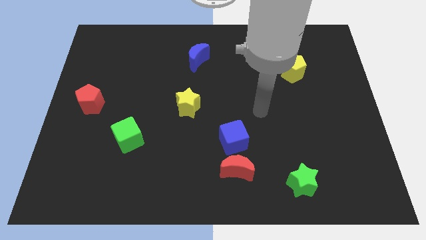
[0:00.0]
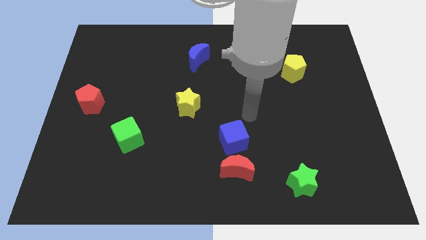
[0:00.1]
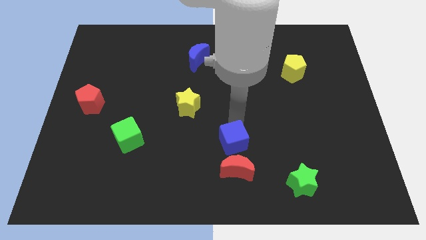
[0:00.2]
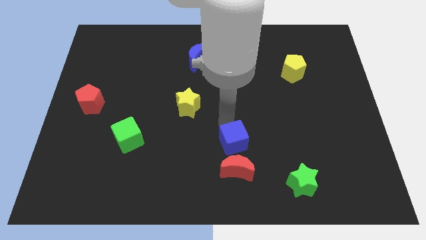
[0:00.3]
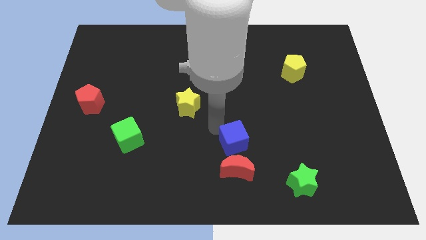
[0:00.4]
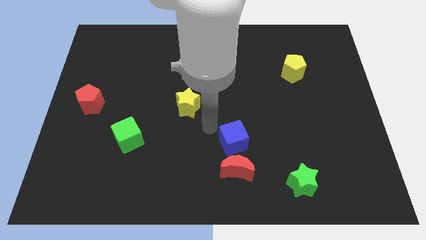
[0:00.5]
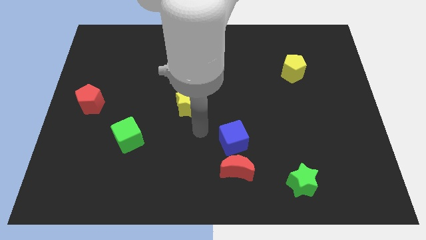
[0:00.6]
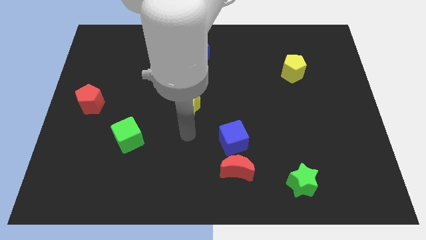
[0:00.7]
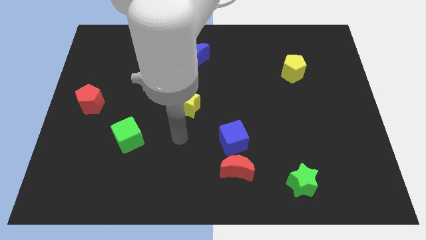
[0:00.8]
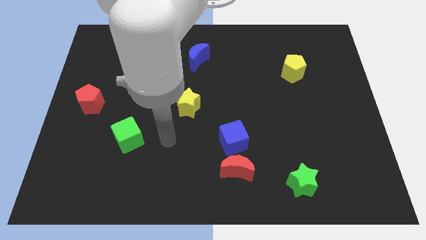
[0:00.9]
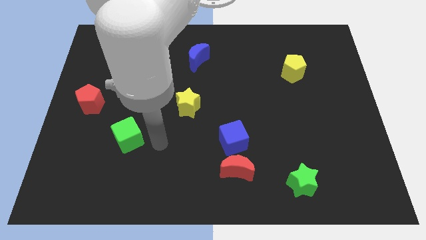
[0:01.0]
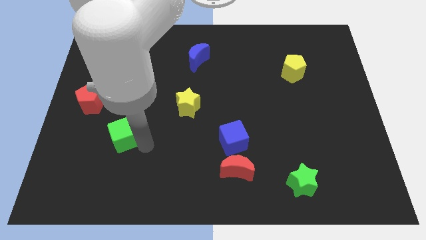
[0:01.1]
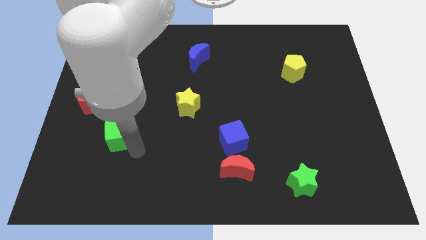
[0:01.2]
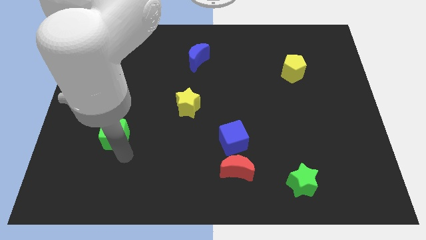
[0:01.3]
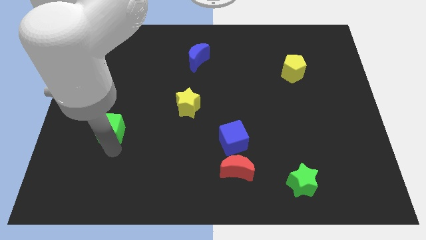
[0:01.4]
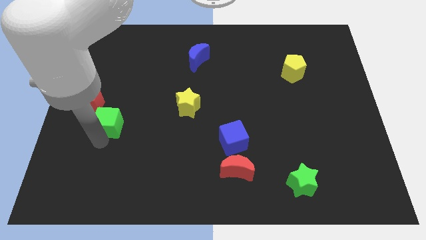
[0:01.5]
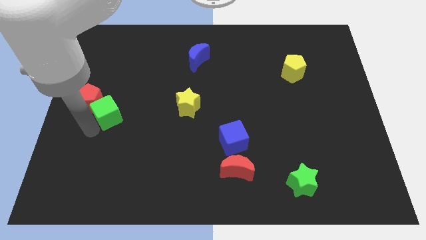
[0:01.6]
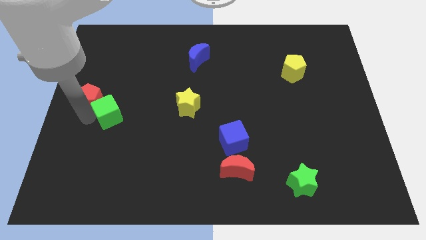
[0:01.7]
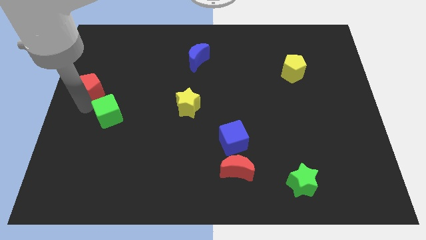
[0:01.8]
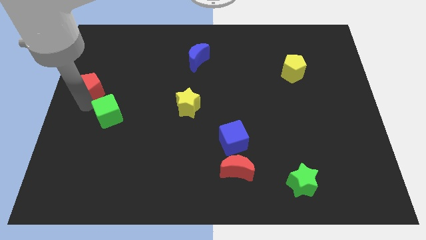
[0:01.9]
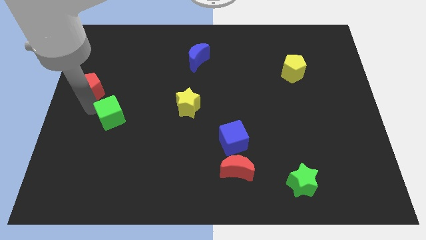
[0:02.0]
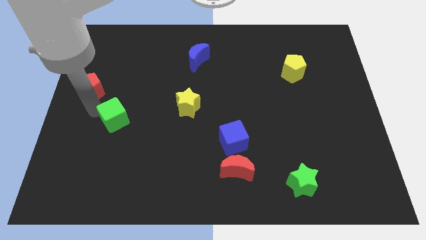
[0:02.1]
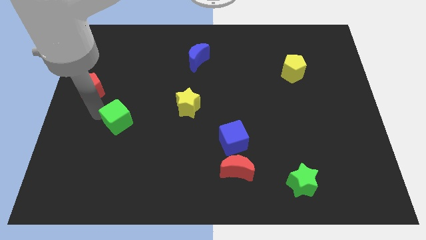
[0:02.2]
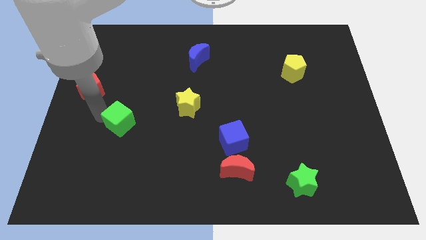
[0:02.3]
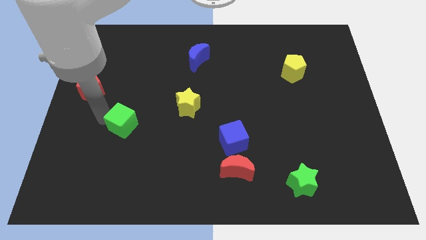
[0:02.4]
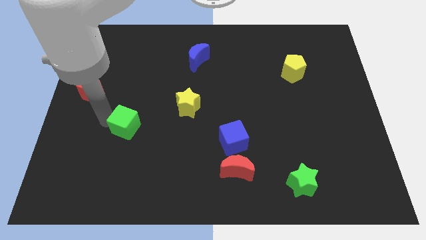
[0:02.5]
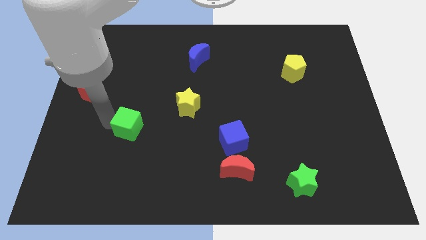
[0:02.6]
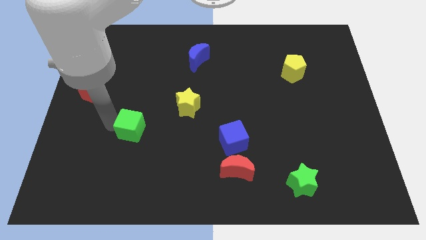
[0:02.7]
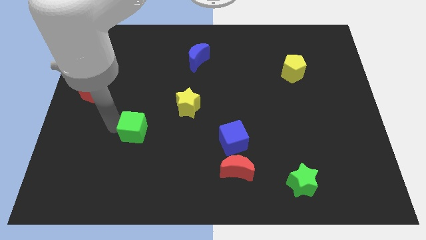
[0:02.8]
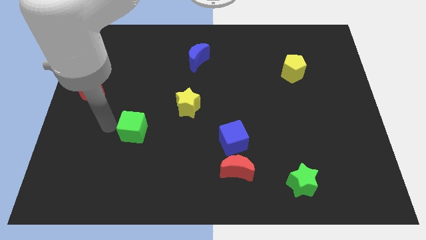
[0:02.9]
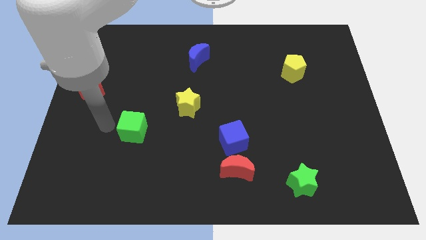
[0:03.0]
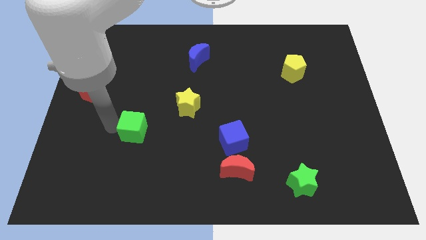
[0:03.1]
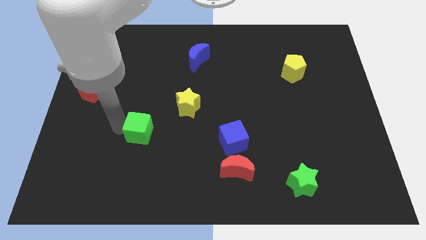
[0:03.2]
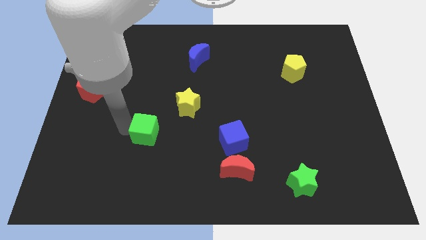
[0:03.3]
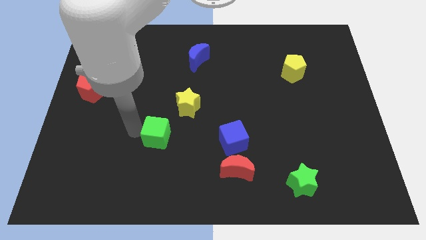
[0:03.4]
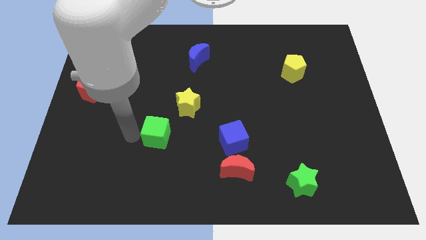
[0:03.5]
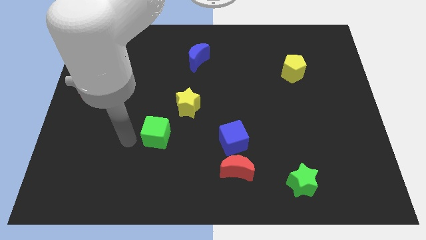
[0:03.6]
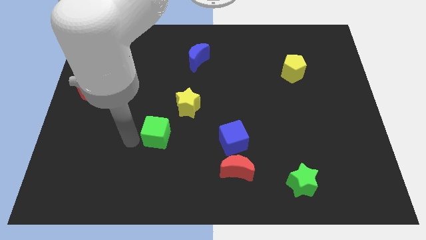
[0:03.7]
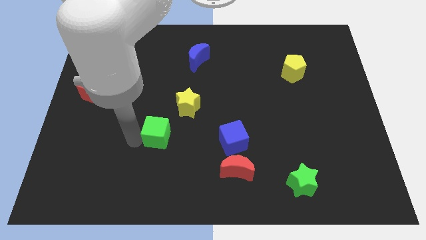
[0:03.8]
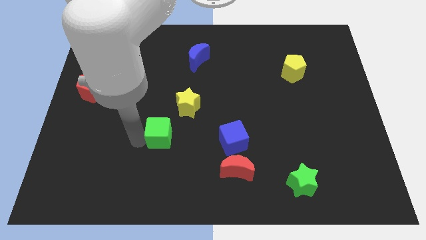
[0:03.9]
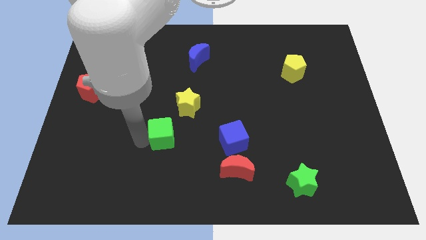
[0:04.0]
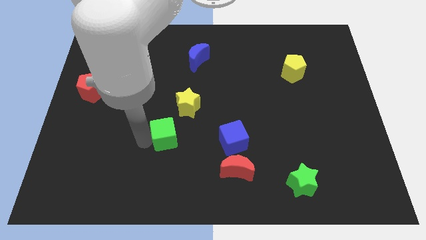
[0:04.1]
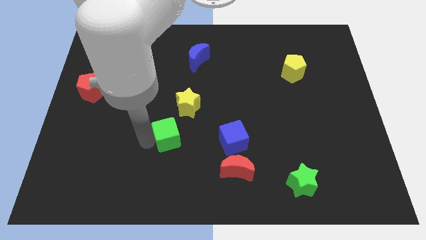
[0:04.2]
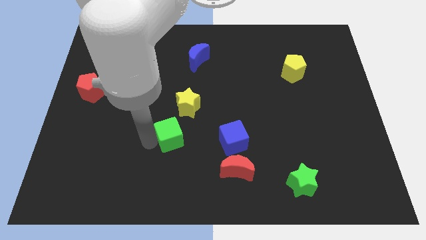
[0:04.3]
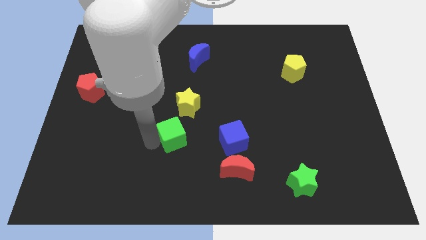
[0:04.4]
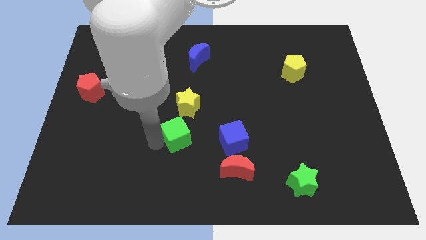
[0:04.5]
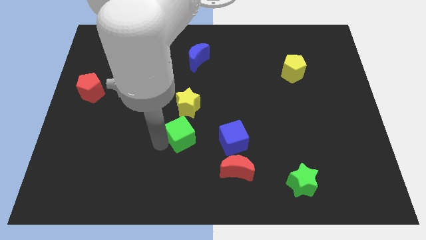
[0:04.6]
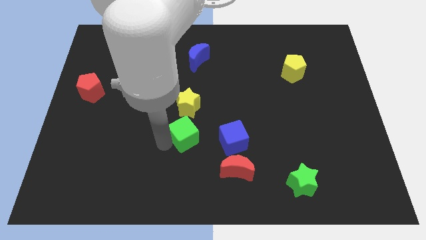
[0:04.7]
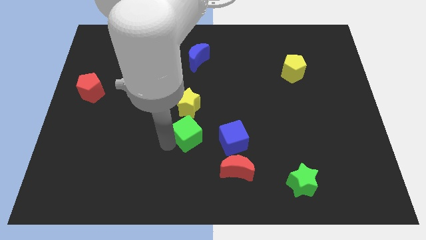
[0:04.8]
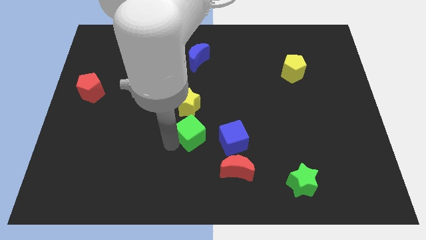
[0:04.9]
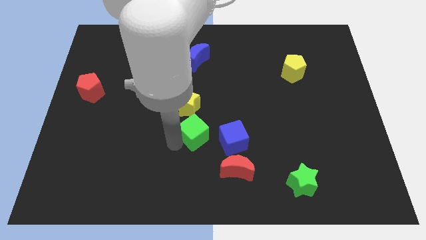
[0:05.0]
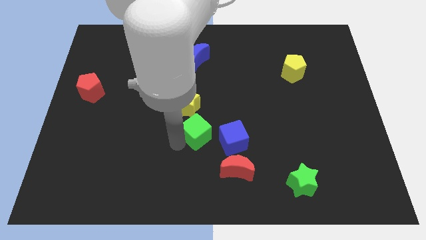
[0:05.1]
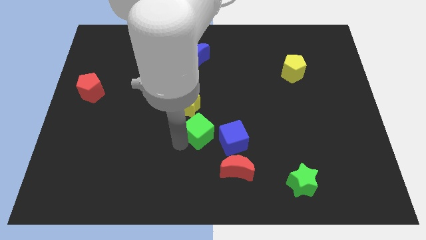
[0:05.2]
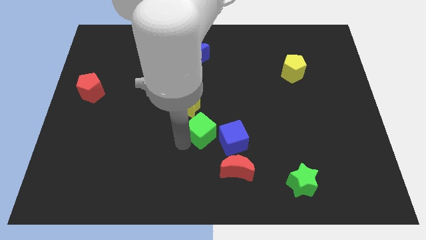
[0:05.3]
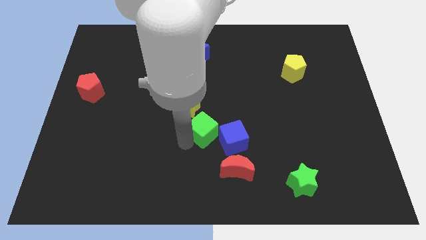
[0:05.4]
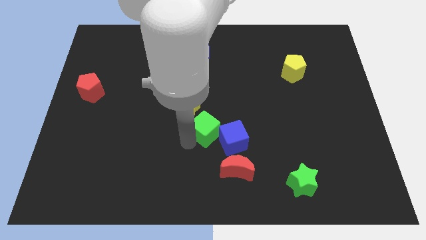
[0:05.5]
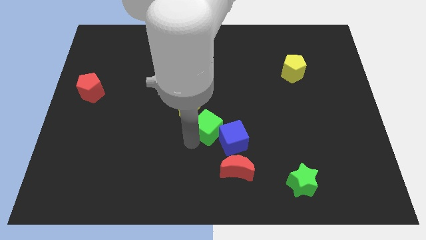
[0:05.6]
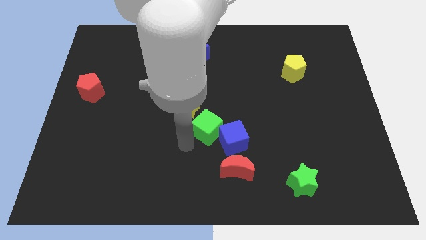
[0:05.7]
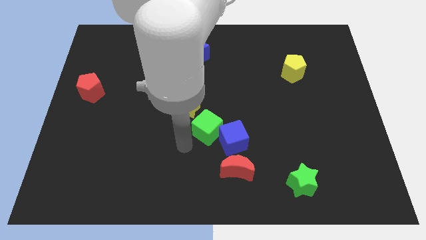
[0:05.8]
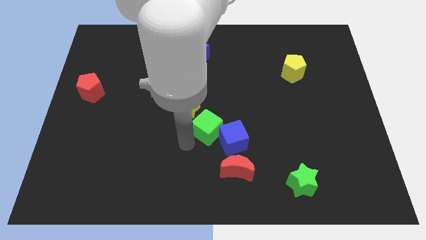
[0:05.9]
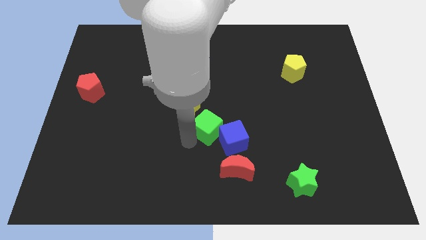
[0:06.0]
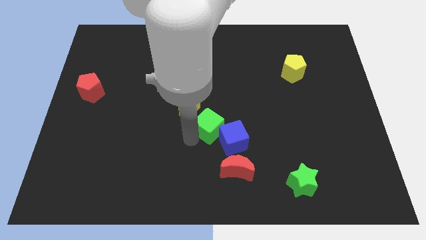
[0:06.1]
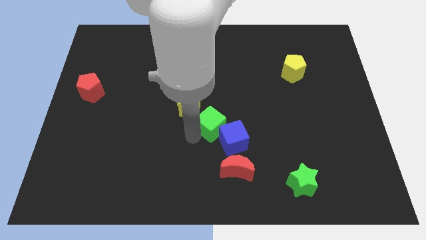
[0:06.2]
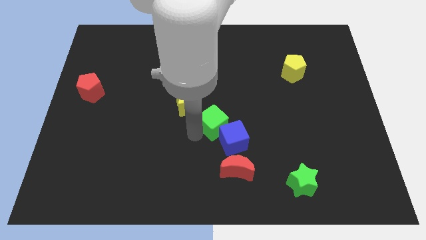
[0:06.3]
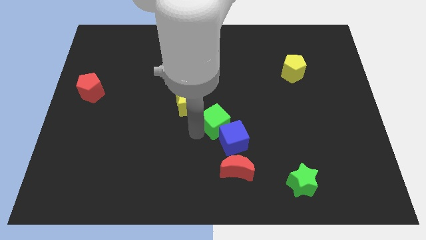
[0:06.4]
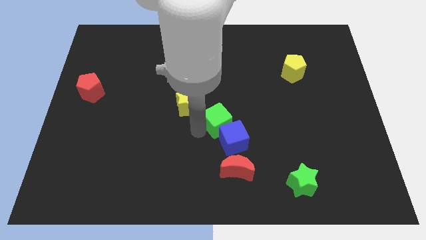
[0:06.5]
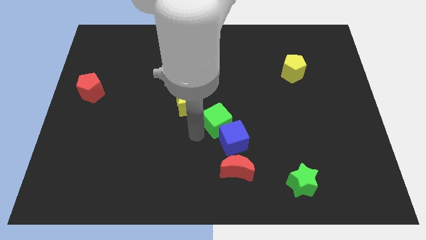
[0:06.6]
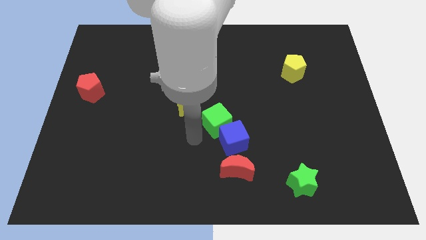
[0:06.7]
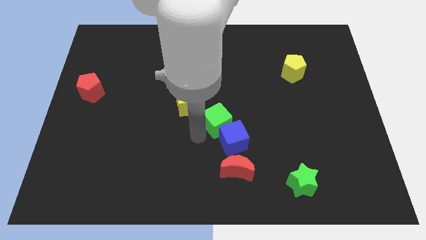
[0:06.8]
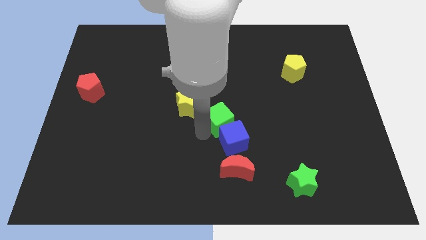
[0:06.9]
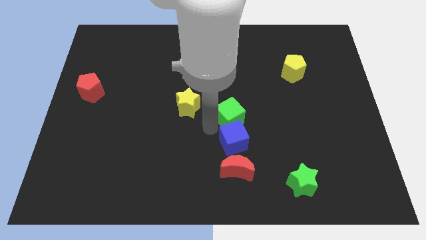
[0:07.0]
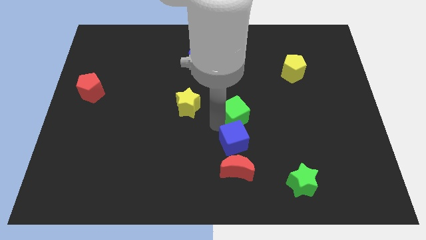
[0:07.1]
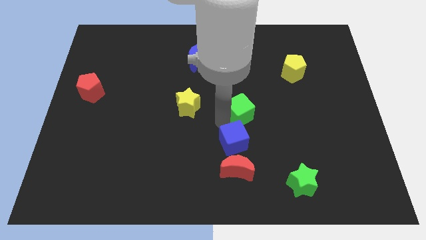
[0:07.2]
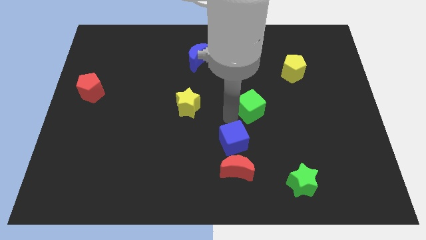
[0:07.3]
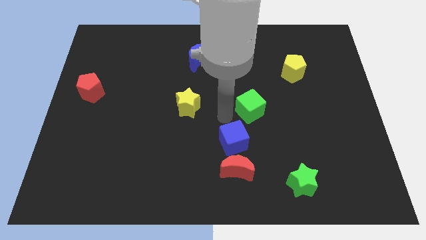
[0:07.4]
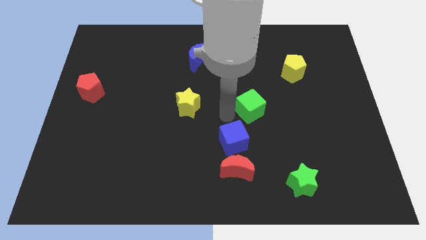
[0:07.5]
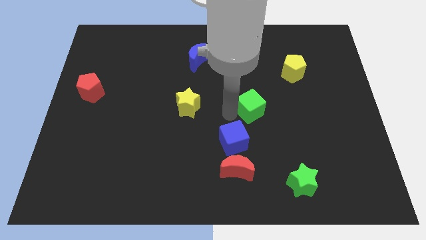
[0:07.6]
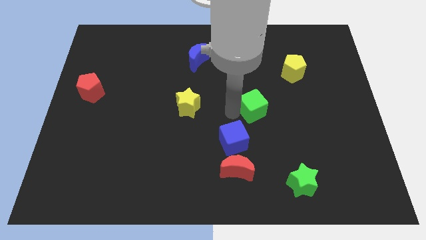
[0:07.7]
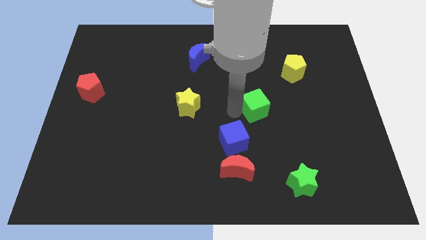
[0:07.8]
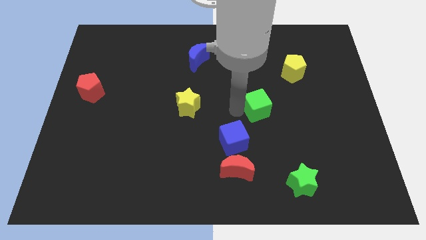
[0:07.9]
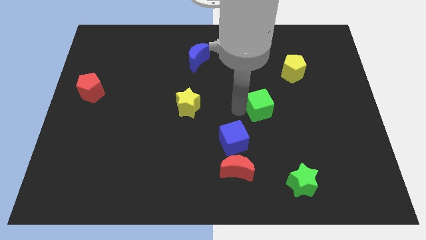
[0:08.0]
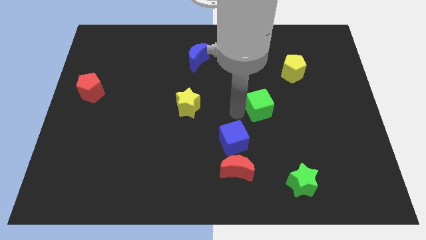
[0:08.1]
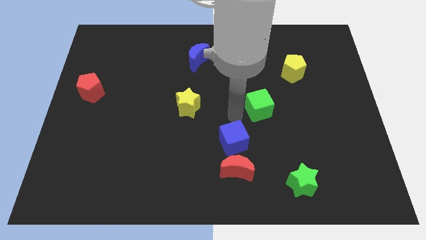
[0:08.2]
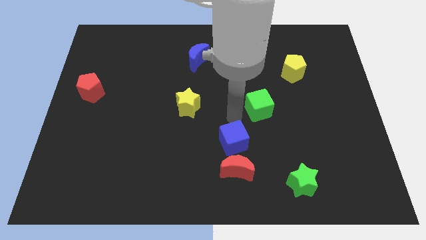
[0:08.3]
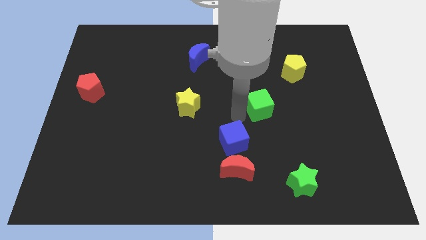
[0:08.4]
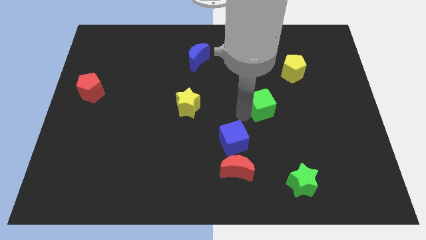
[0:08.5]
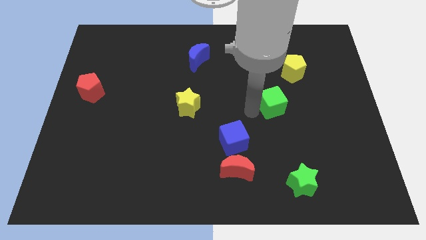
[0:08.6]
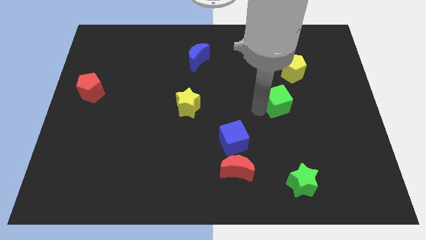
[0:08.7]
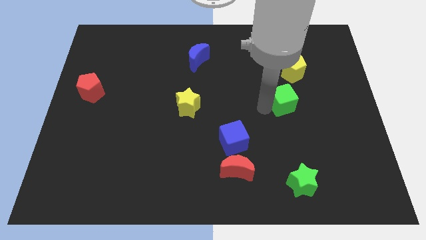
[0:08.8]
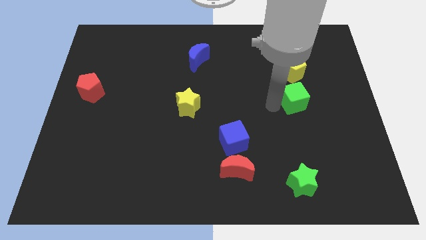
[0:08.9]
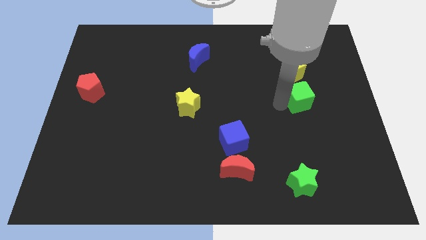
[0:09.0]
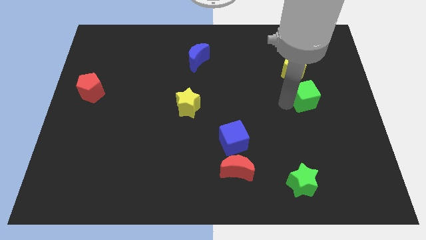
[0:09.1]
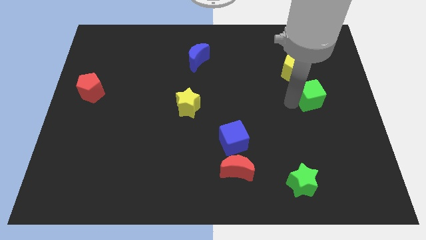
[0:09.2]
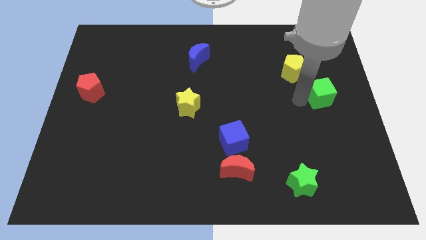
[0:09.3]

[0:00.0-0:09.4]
put the green cube to the right side
